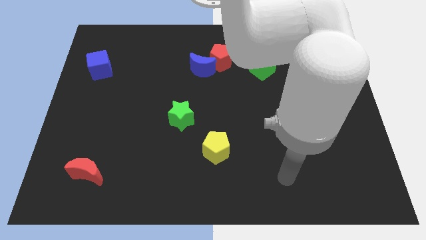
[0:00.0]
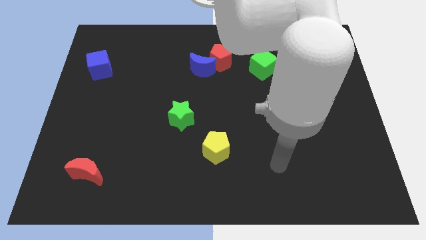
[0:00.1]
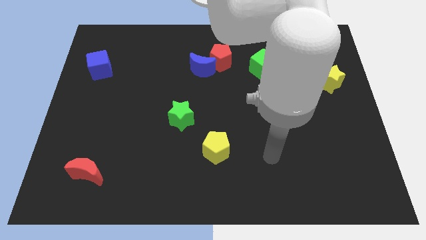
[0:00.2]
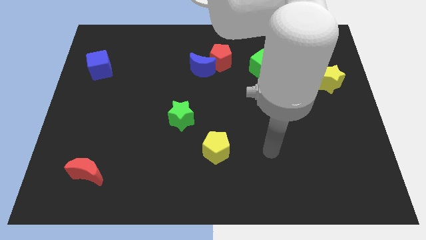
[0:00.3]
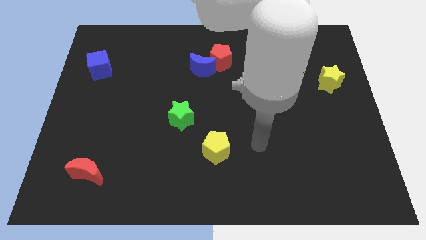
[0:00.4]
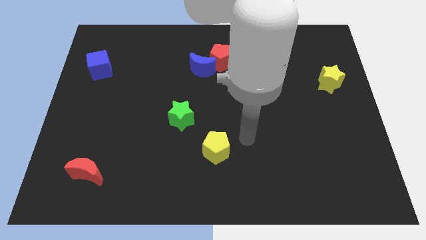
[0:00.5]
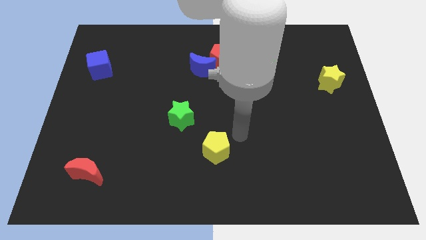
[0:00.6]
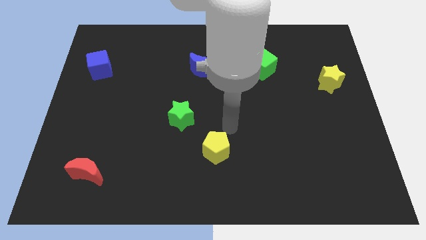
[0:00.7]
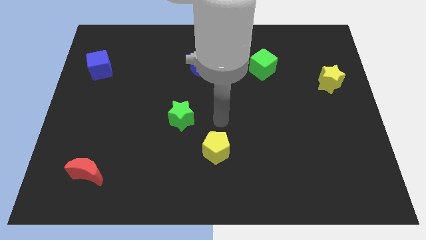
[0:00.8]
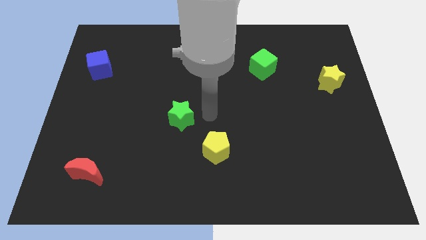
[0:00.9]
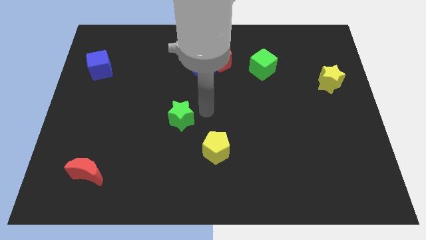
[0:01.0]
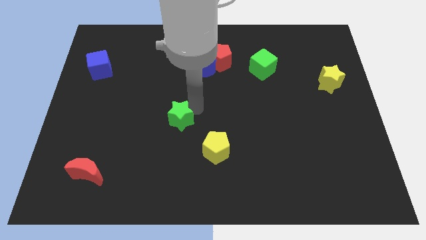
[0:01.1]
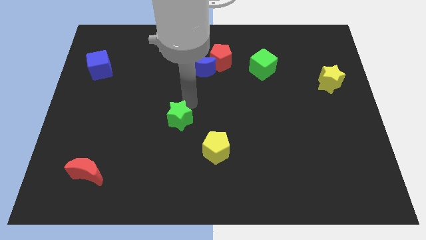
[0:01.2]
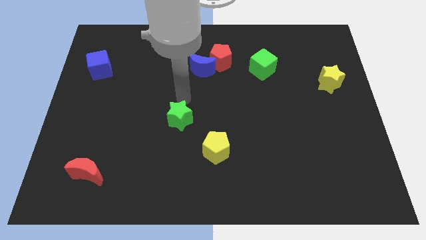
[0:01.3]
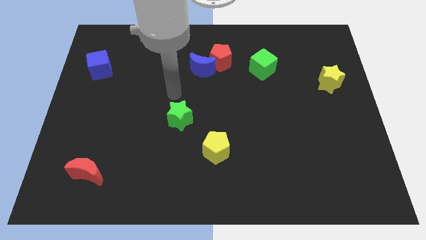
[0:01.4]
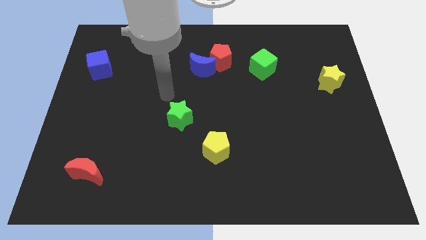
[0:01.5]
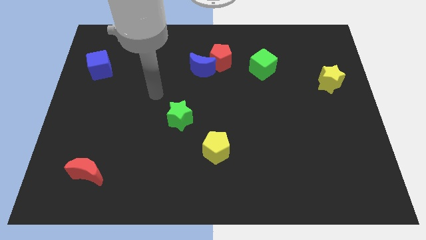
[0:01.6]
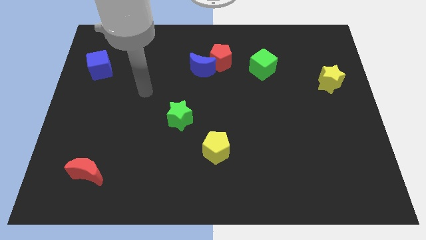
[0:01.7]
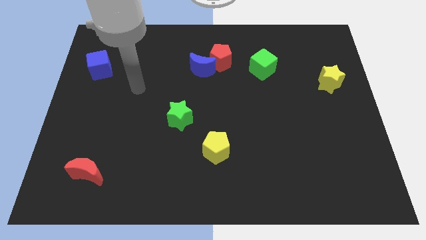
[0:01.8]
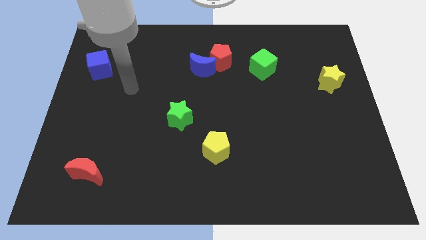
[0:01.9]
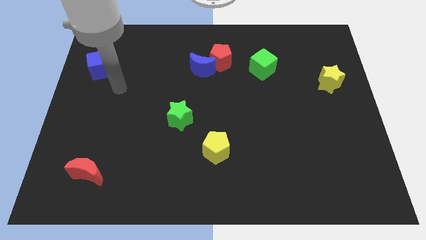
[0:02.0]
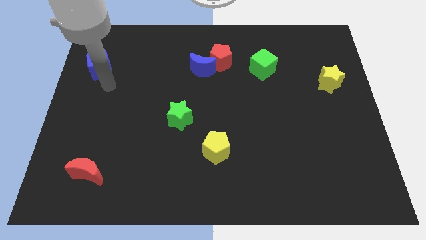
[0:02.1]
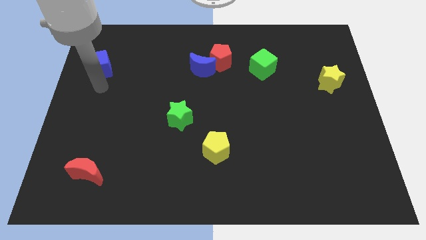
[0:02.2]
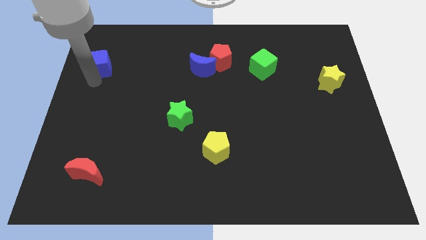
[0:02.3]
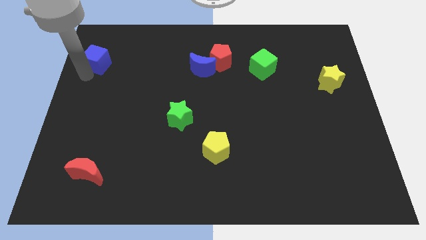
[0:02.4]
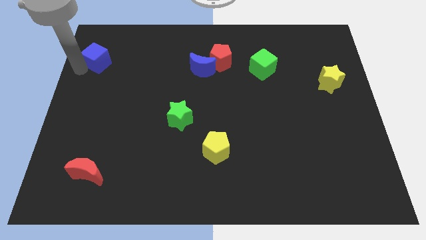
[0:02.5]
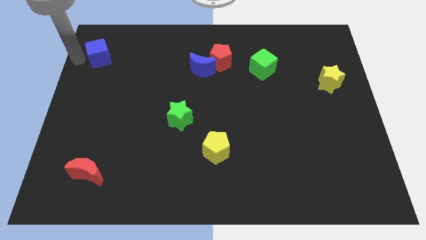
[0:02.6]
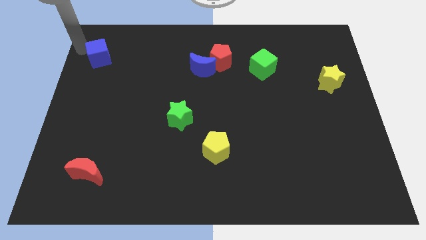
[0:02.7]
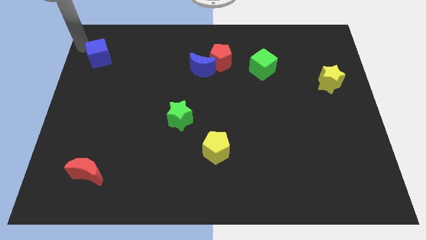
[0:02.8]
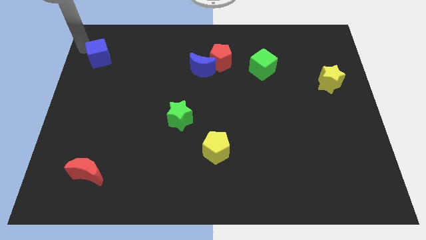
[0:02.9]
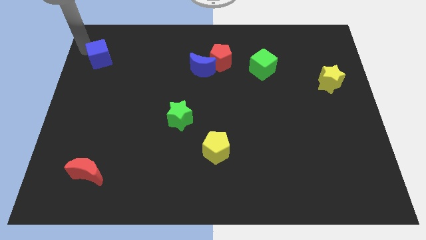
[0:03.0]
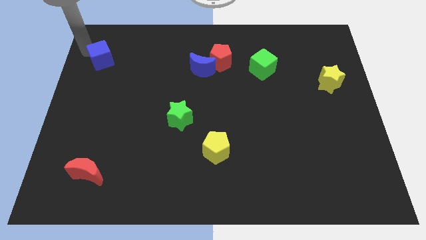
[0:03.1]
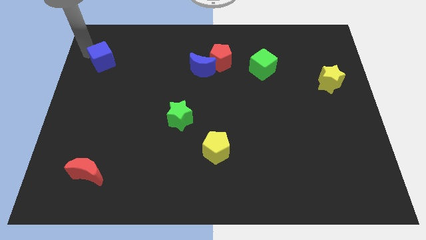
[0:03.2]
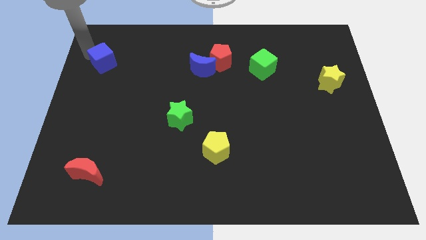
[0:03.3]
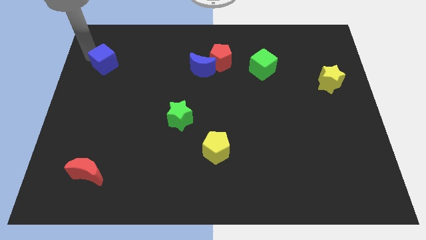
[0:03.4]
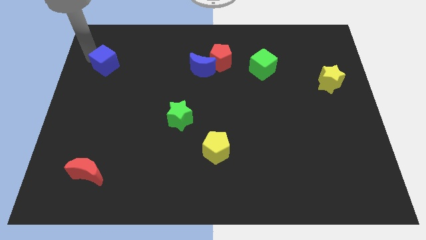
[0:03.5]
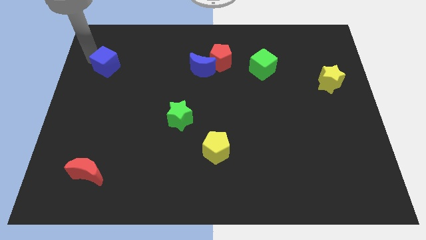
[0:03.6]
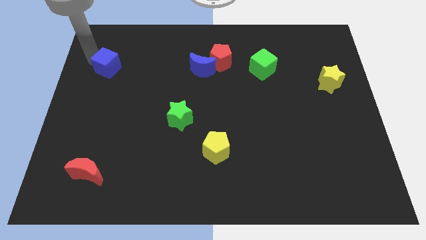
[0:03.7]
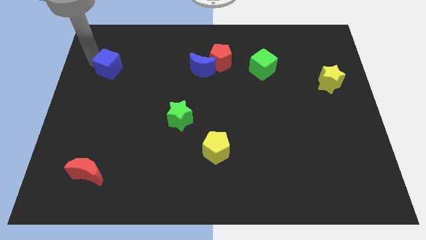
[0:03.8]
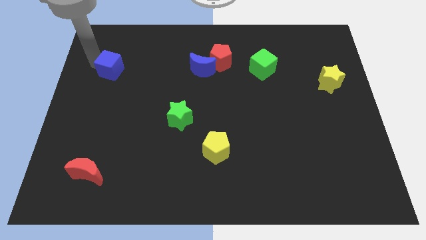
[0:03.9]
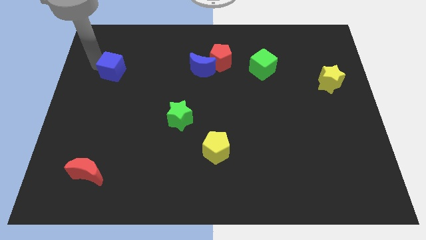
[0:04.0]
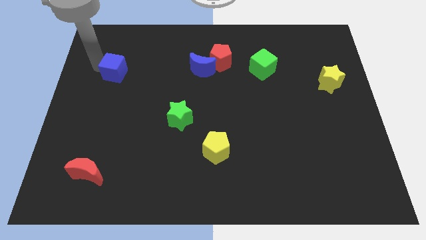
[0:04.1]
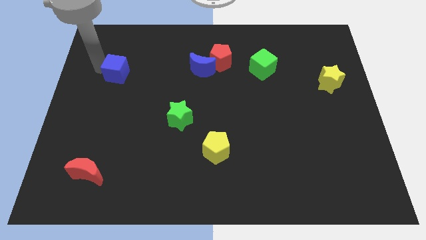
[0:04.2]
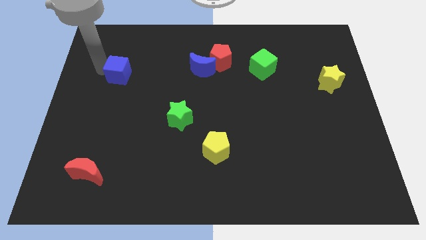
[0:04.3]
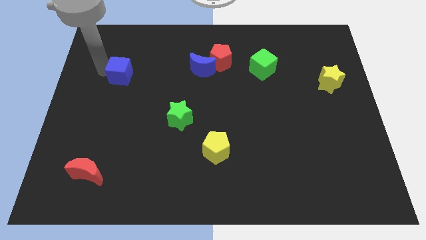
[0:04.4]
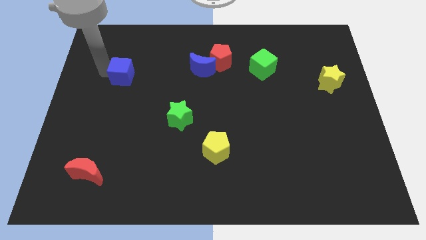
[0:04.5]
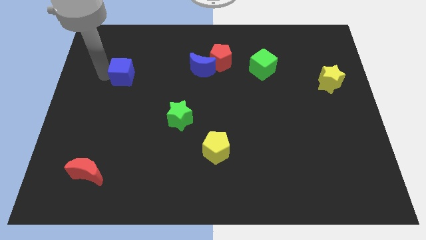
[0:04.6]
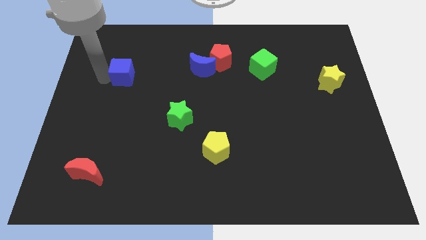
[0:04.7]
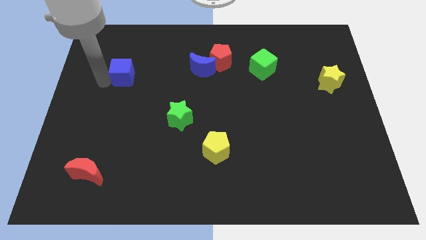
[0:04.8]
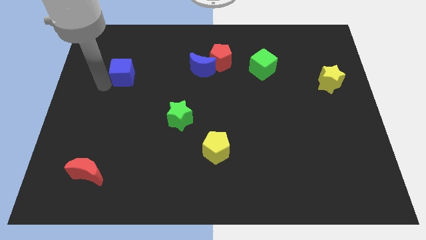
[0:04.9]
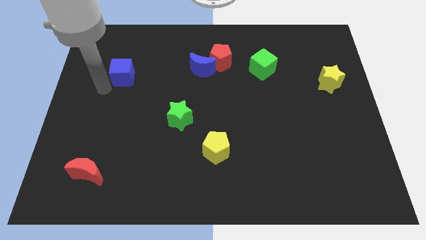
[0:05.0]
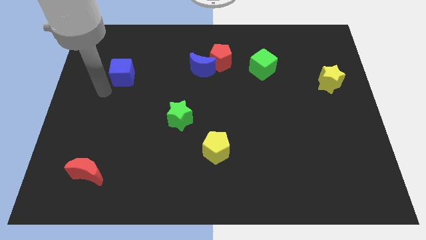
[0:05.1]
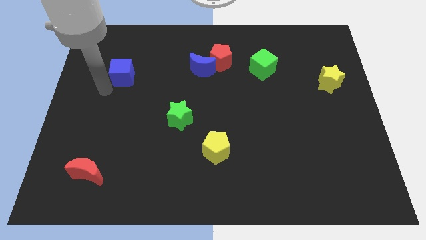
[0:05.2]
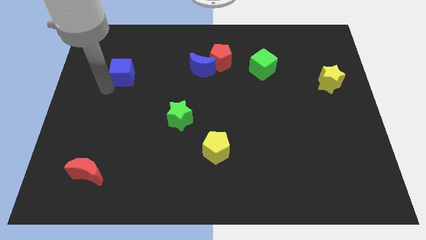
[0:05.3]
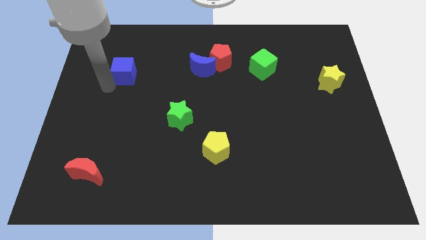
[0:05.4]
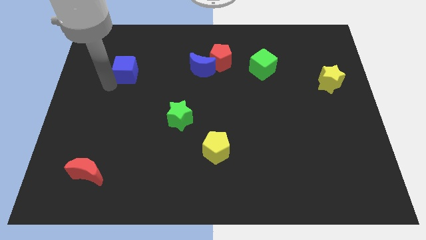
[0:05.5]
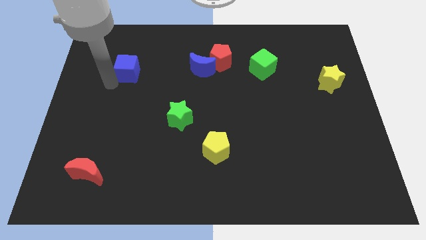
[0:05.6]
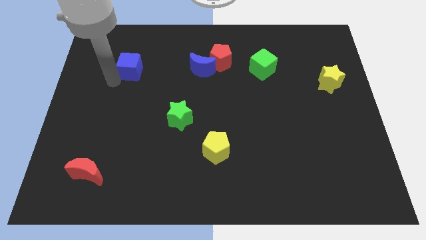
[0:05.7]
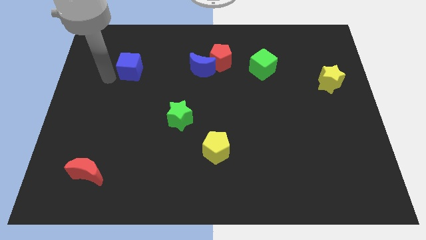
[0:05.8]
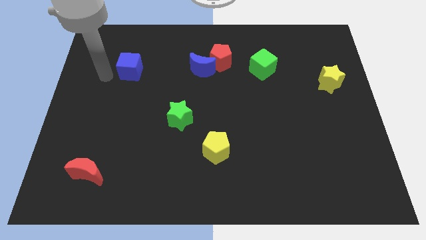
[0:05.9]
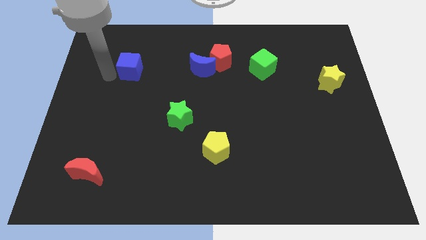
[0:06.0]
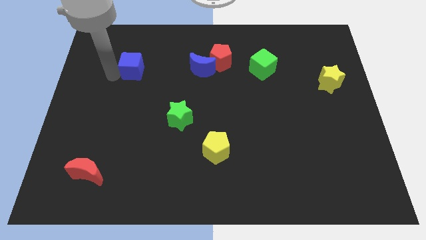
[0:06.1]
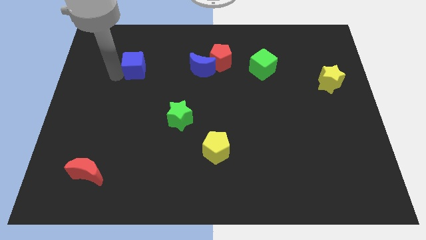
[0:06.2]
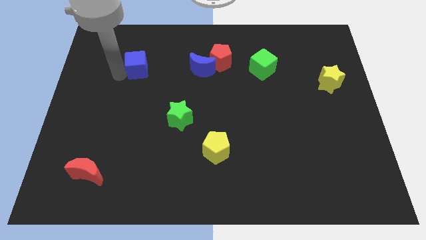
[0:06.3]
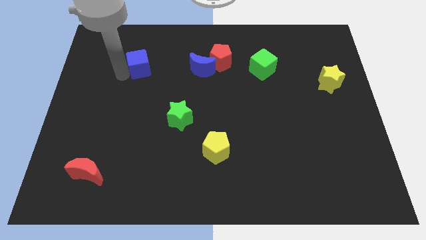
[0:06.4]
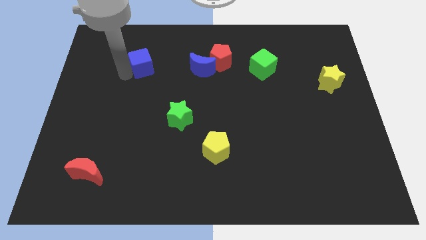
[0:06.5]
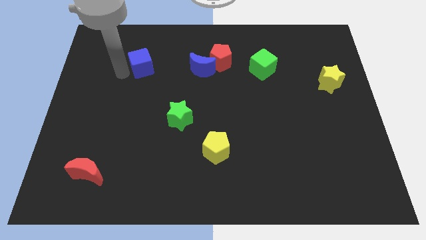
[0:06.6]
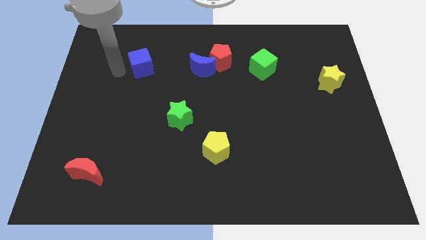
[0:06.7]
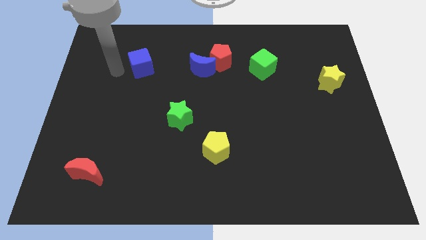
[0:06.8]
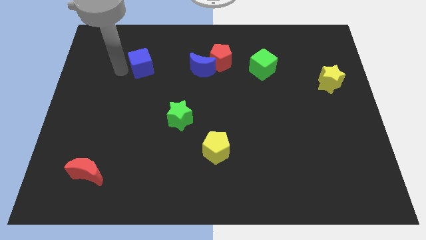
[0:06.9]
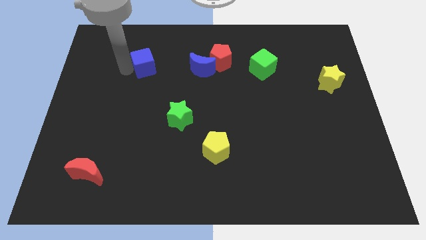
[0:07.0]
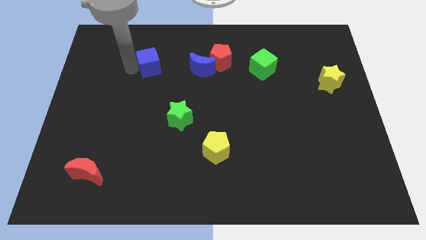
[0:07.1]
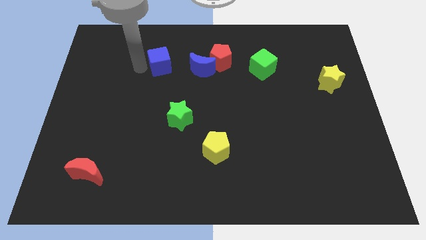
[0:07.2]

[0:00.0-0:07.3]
slide the blue cube to the left of the red pentagon
